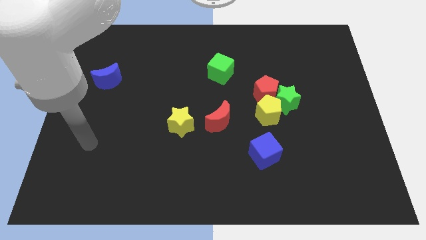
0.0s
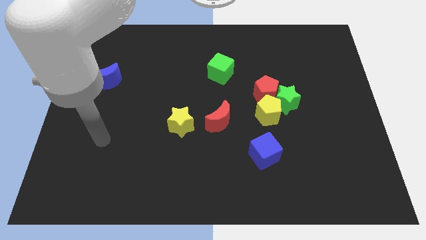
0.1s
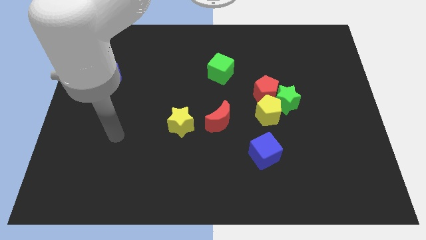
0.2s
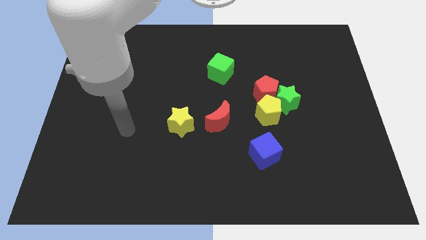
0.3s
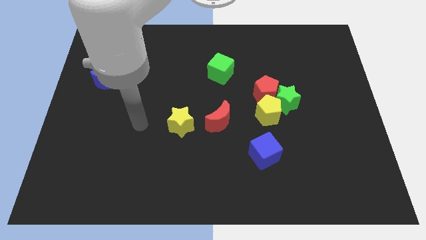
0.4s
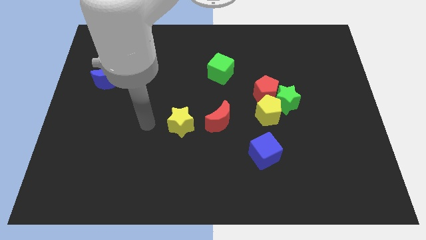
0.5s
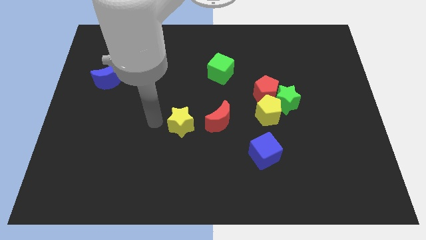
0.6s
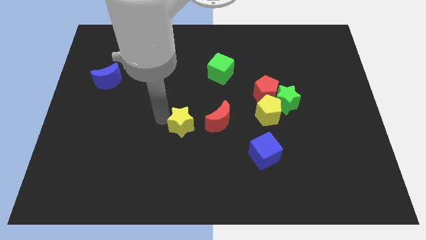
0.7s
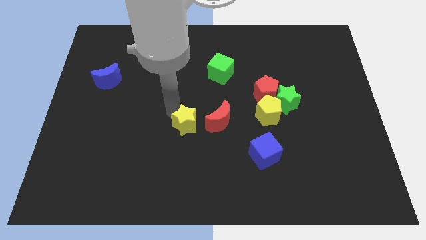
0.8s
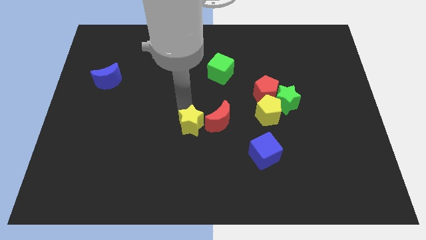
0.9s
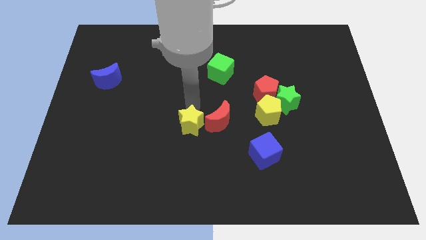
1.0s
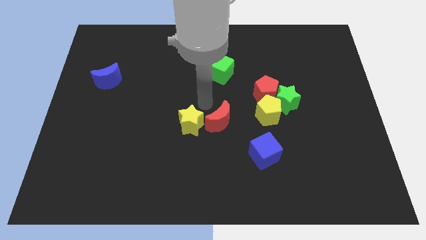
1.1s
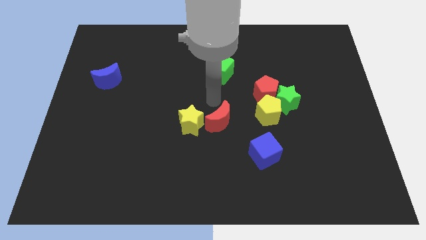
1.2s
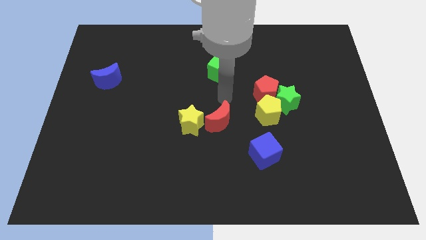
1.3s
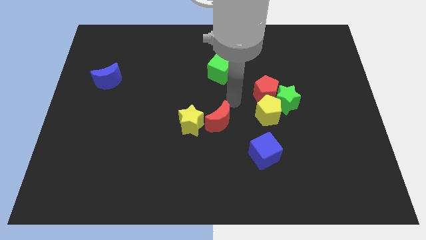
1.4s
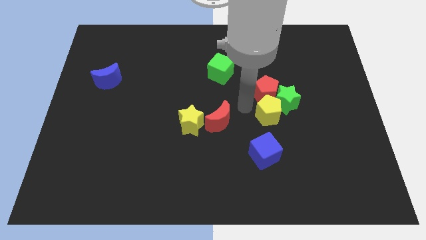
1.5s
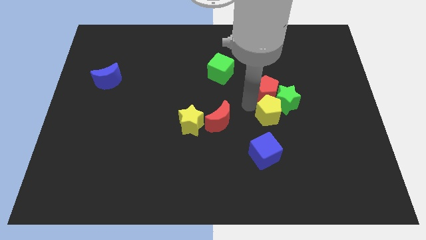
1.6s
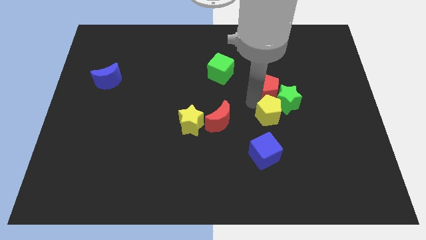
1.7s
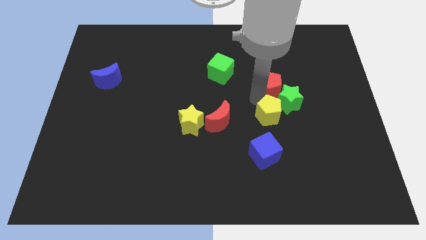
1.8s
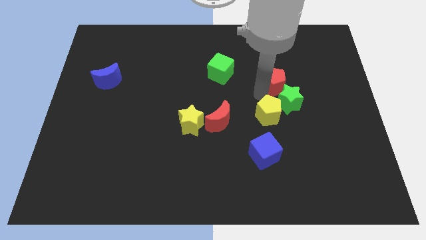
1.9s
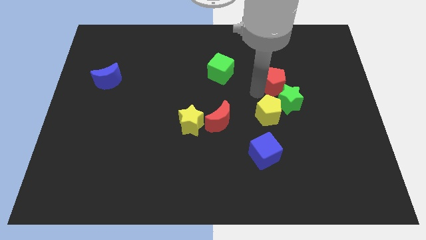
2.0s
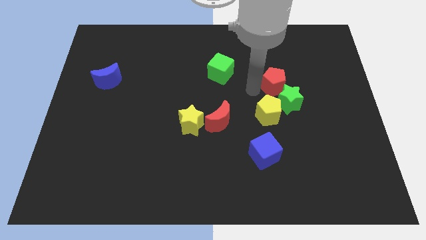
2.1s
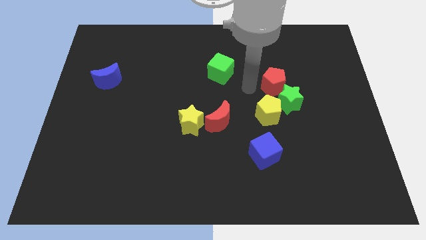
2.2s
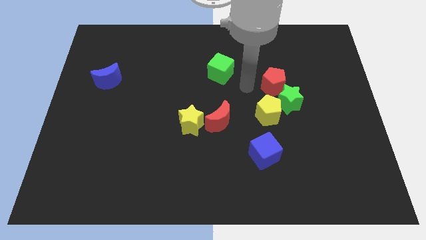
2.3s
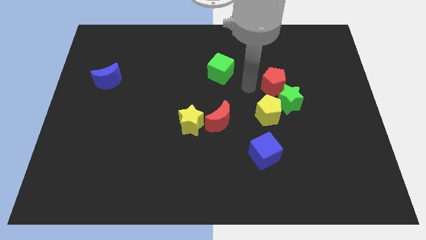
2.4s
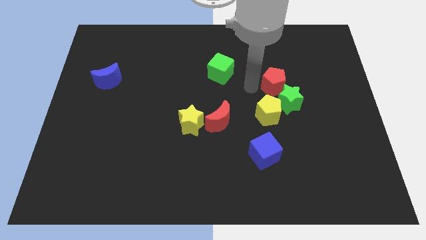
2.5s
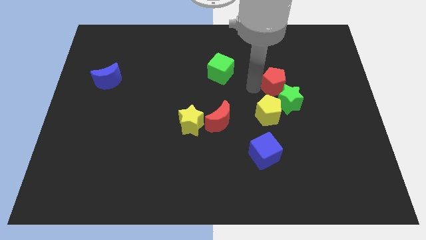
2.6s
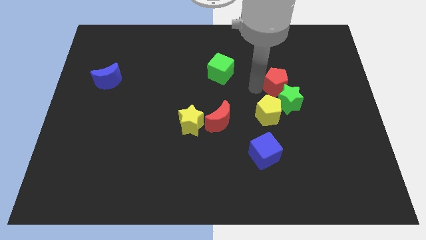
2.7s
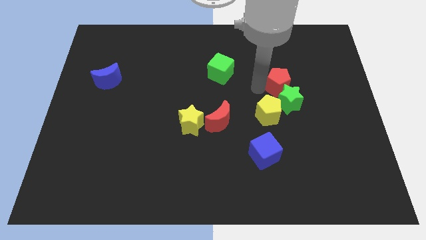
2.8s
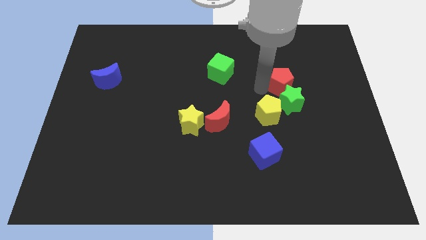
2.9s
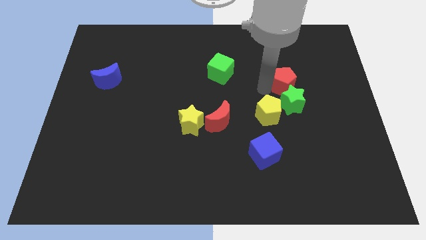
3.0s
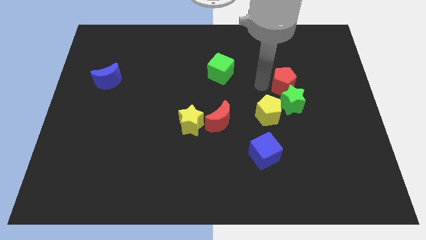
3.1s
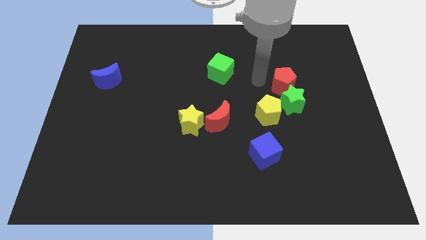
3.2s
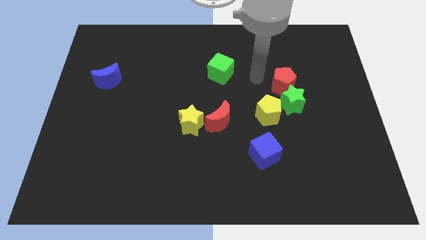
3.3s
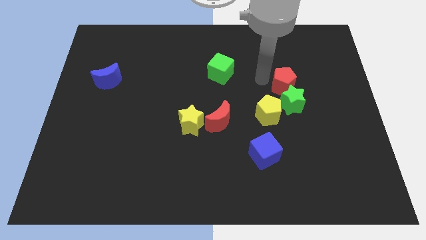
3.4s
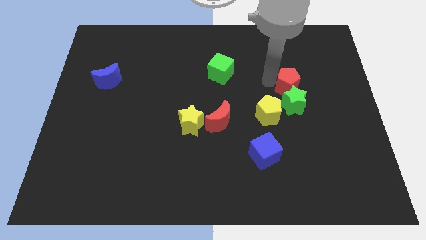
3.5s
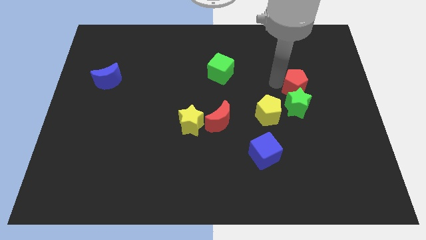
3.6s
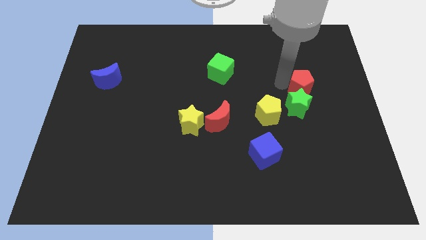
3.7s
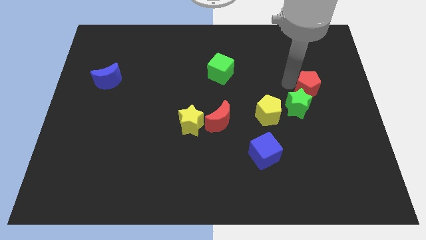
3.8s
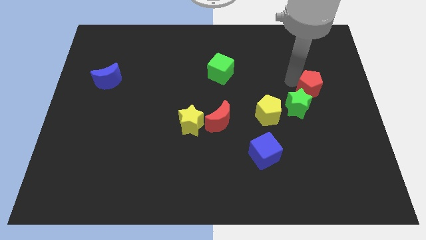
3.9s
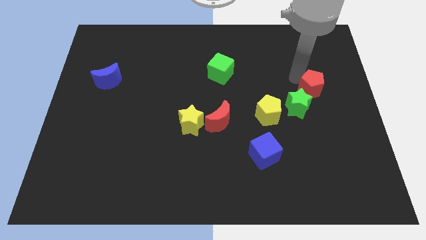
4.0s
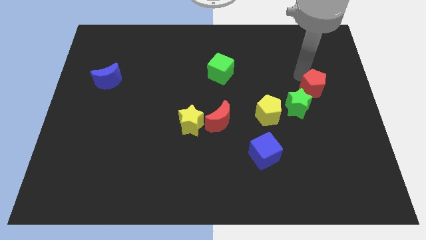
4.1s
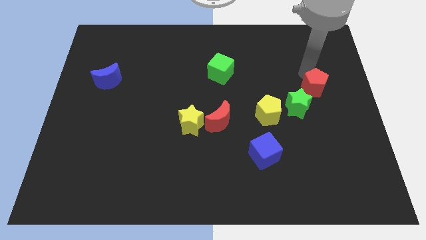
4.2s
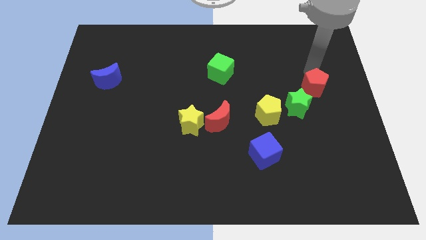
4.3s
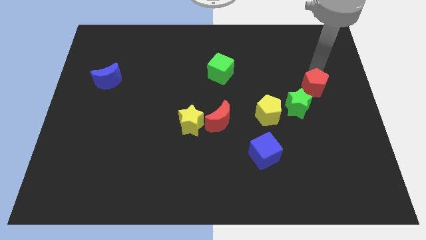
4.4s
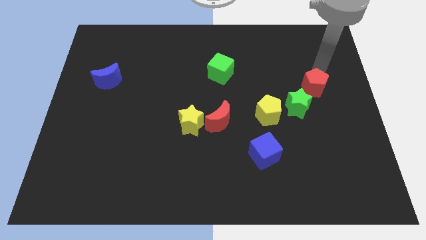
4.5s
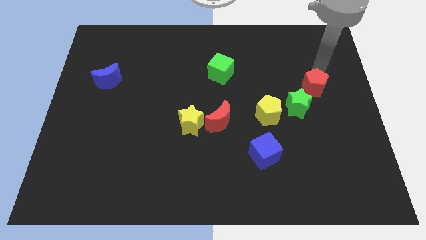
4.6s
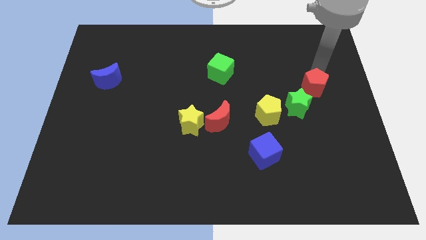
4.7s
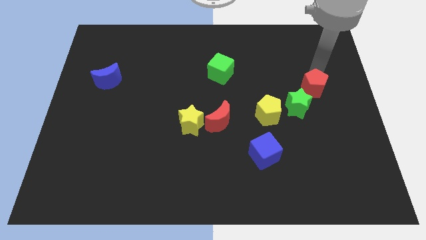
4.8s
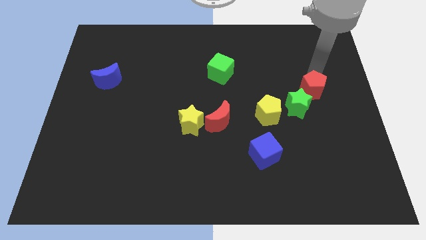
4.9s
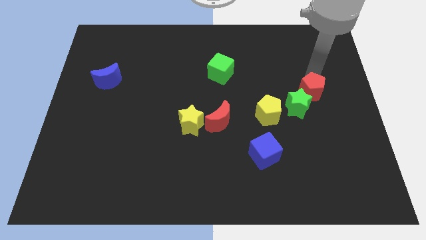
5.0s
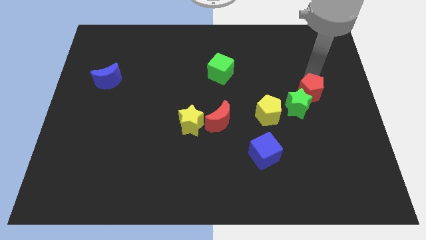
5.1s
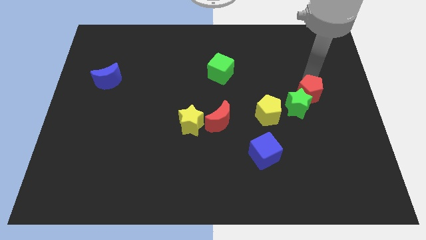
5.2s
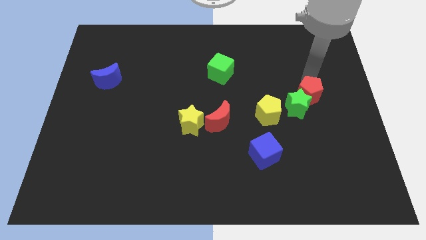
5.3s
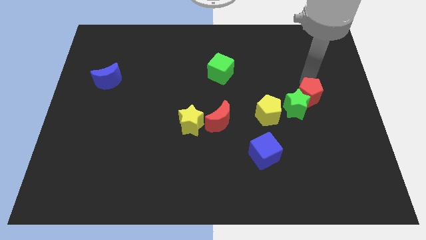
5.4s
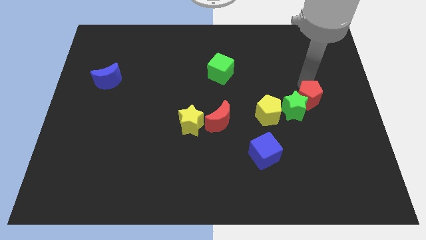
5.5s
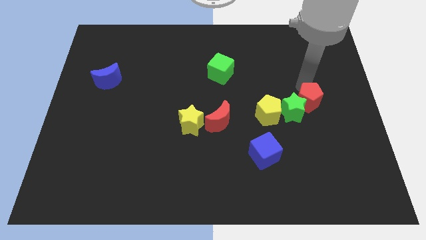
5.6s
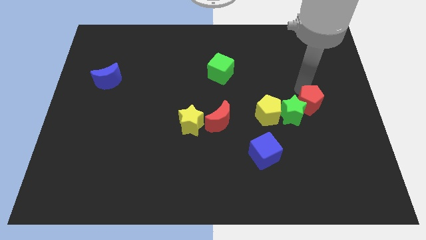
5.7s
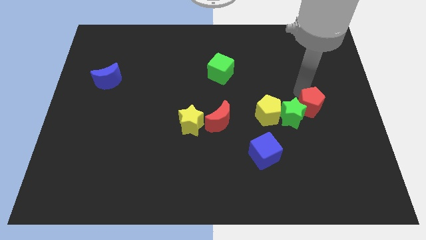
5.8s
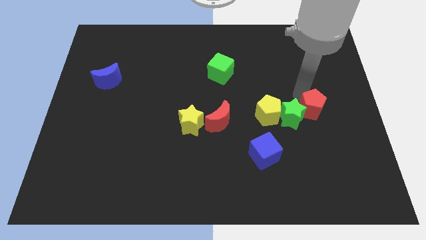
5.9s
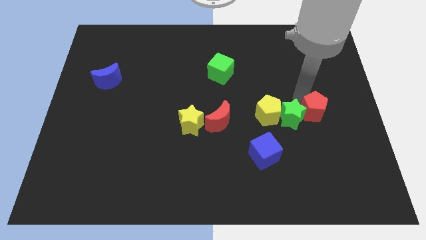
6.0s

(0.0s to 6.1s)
slide the red pentagon to the bottom right of the green star

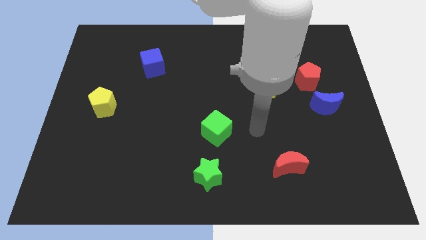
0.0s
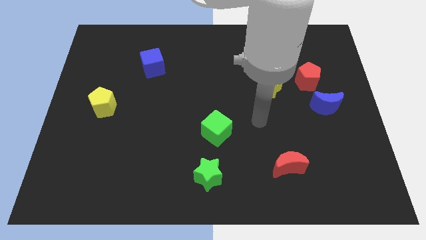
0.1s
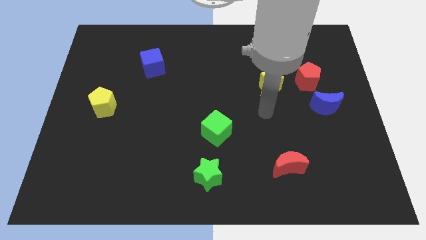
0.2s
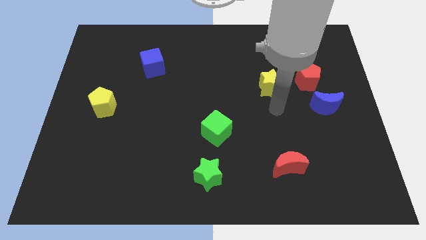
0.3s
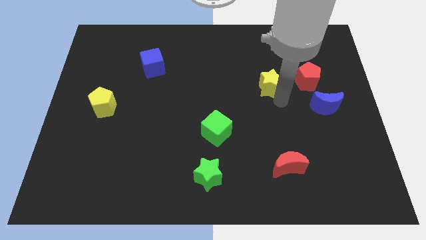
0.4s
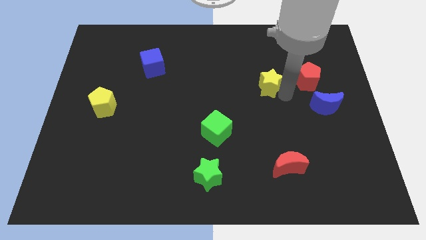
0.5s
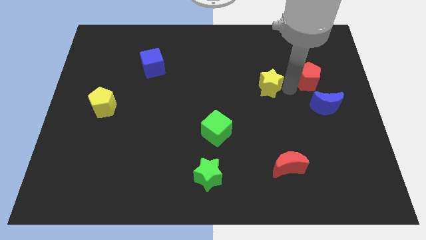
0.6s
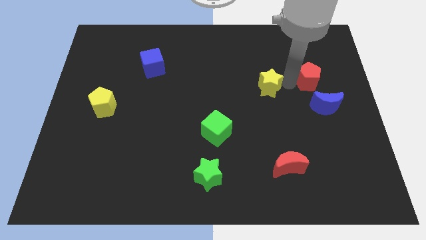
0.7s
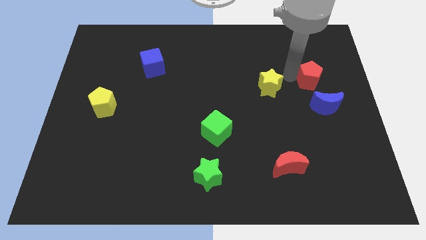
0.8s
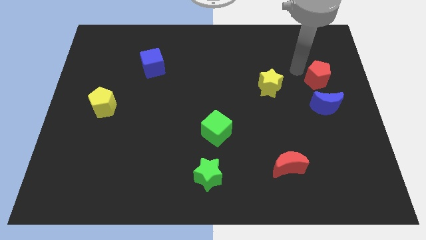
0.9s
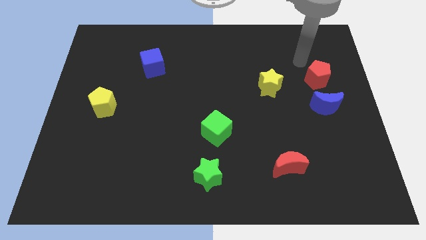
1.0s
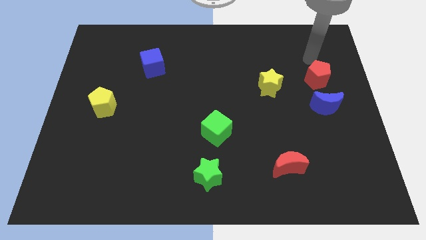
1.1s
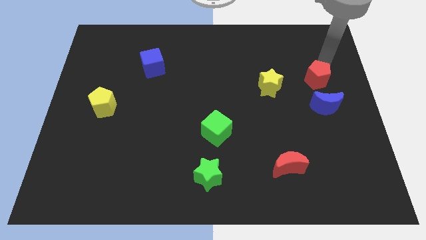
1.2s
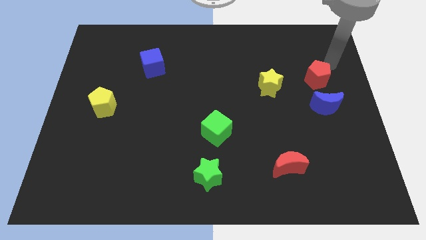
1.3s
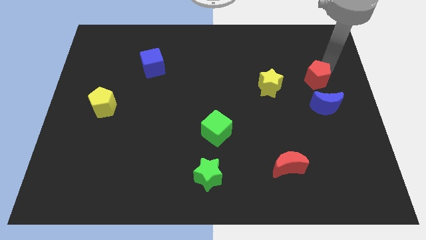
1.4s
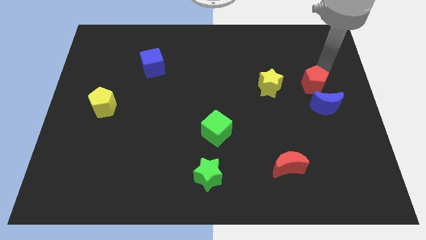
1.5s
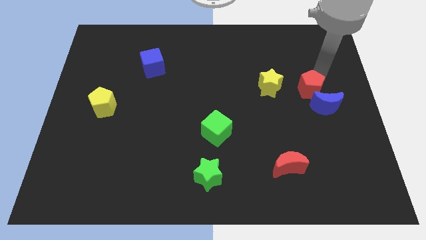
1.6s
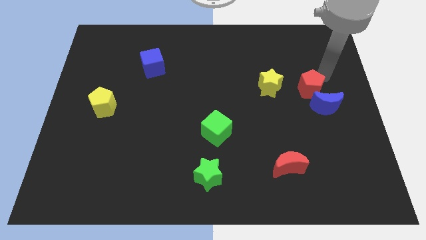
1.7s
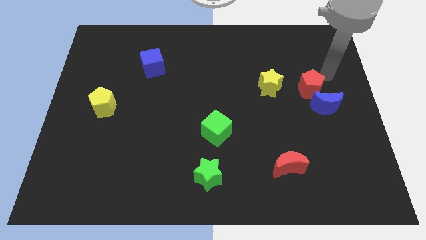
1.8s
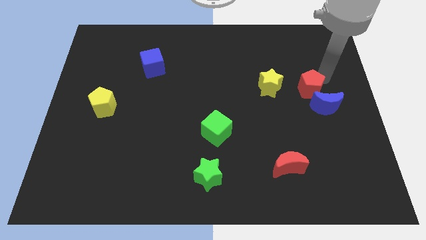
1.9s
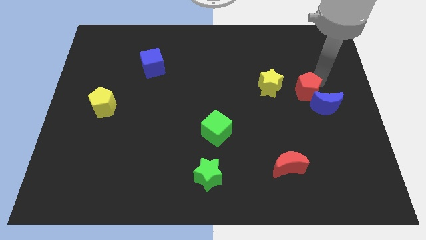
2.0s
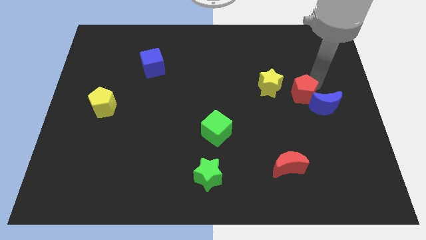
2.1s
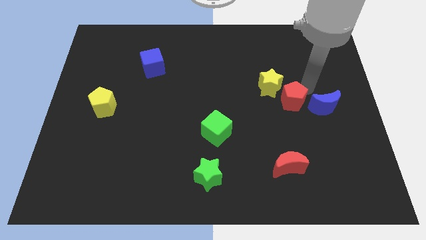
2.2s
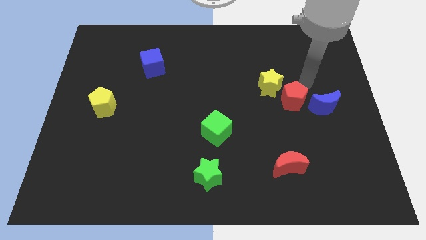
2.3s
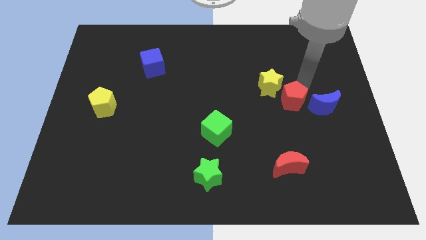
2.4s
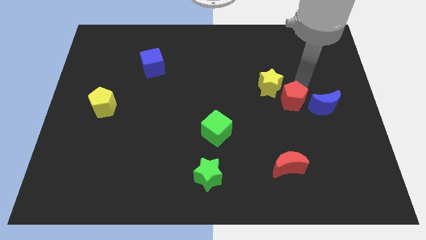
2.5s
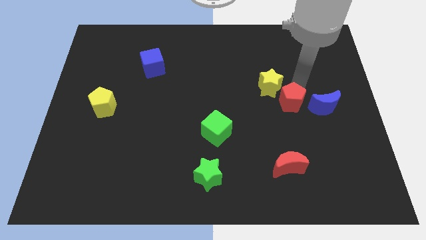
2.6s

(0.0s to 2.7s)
put the red pentagon below the yellow star
